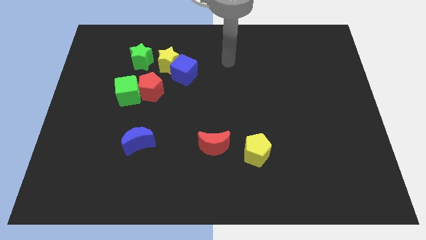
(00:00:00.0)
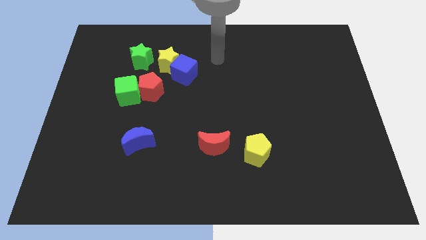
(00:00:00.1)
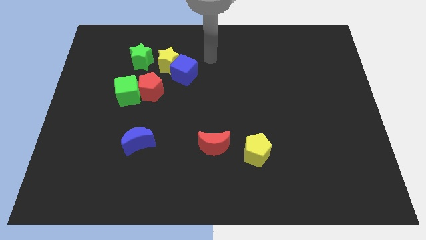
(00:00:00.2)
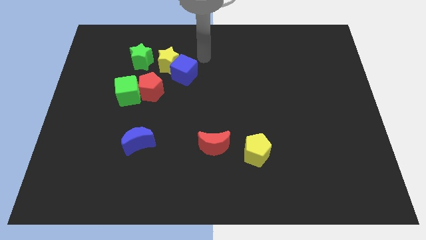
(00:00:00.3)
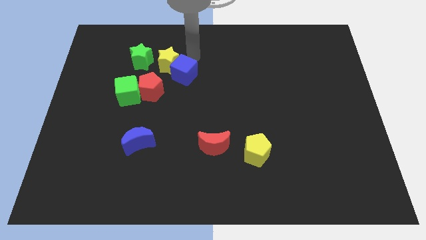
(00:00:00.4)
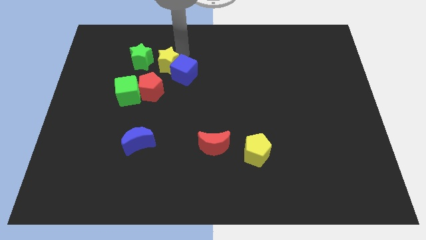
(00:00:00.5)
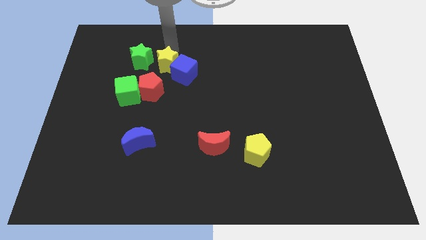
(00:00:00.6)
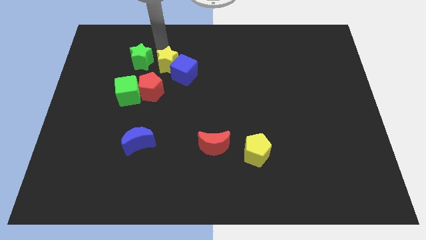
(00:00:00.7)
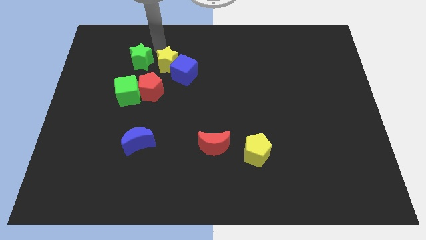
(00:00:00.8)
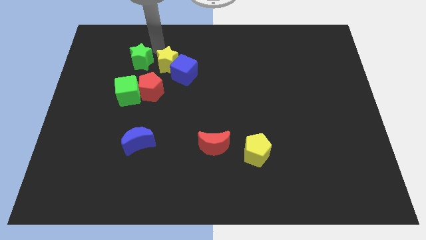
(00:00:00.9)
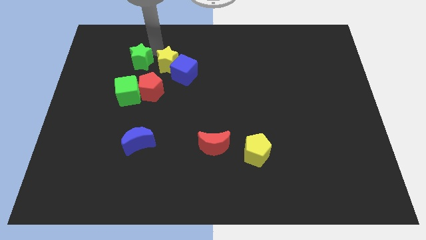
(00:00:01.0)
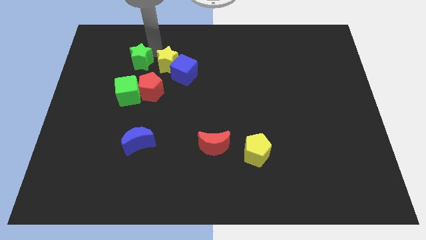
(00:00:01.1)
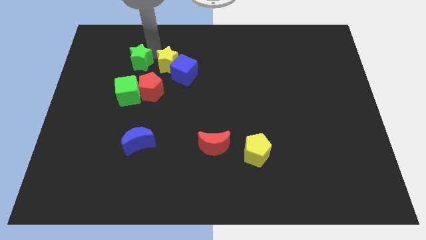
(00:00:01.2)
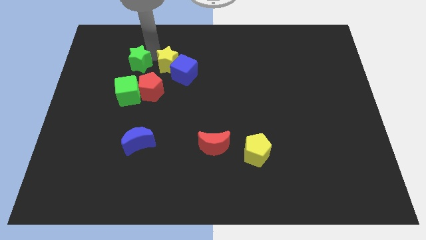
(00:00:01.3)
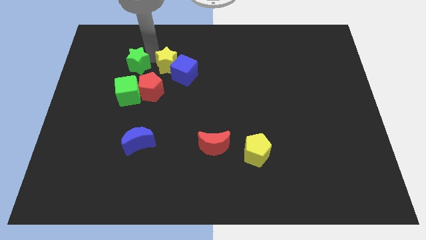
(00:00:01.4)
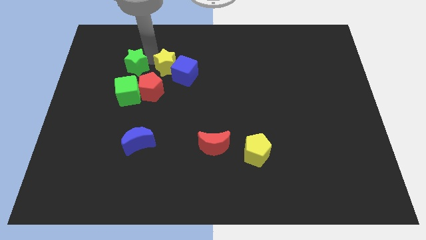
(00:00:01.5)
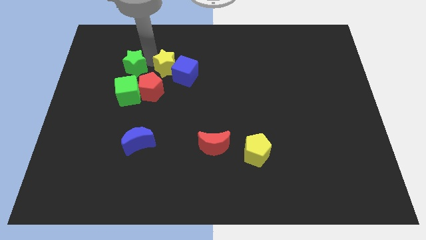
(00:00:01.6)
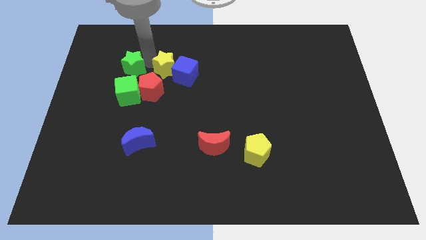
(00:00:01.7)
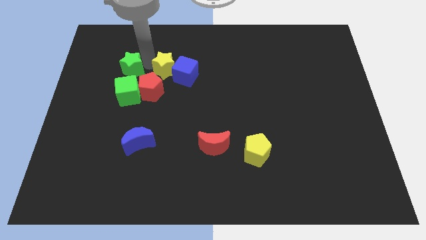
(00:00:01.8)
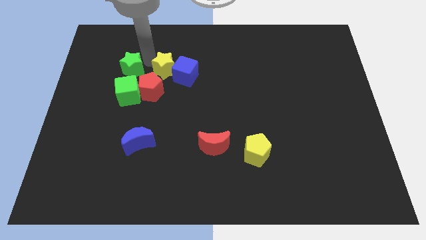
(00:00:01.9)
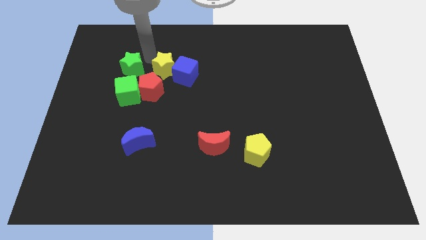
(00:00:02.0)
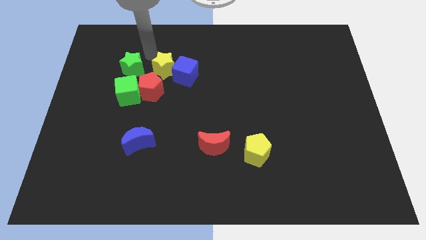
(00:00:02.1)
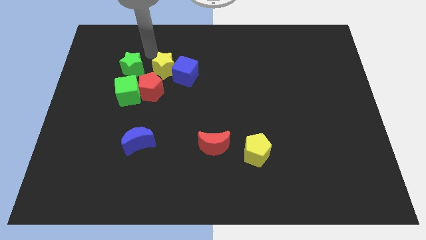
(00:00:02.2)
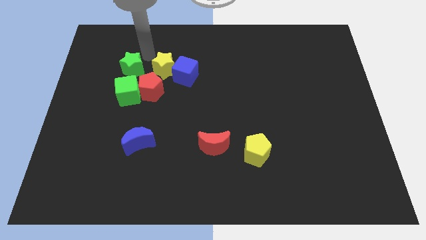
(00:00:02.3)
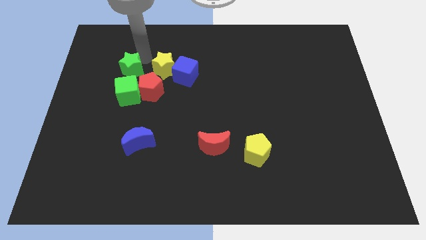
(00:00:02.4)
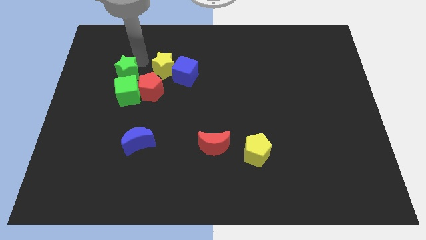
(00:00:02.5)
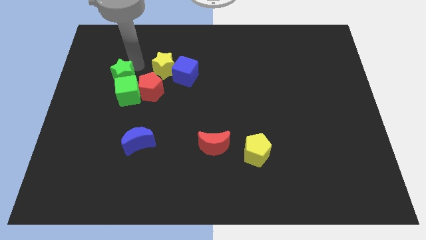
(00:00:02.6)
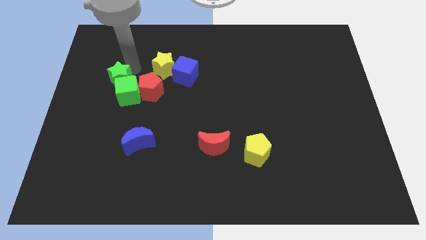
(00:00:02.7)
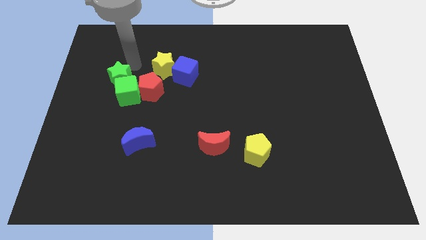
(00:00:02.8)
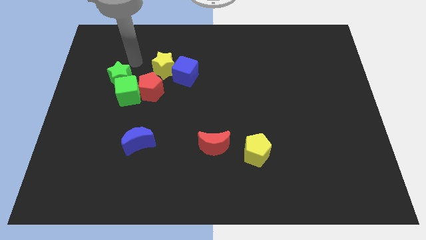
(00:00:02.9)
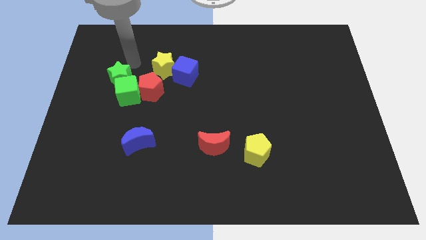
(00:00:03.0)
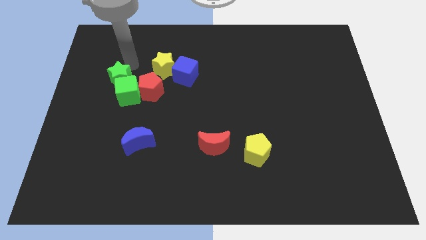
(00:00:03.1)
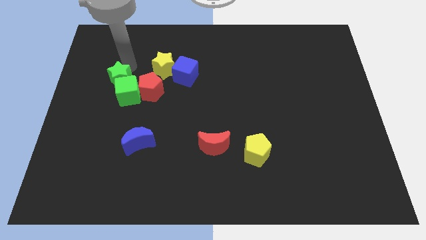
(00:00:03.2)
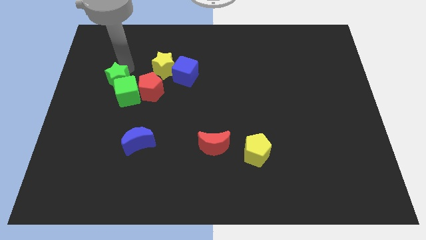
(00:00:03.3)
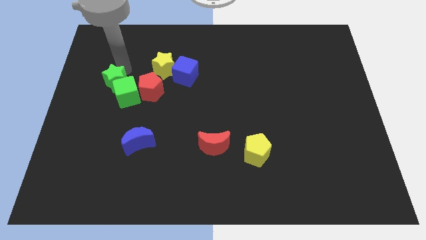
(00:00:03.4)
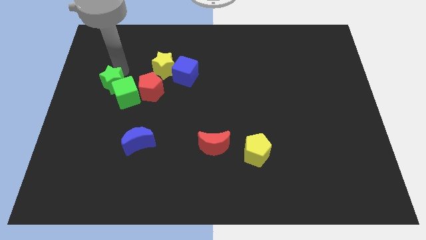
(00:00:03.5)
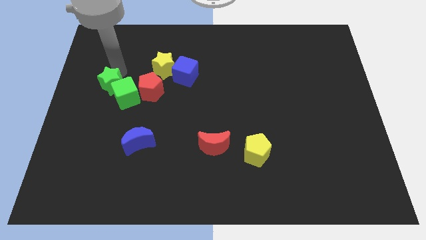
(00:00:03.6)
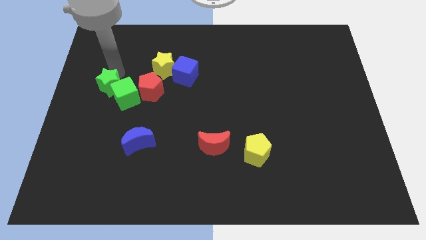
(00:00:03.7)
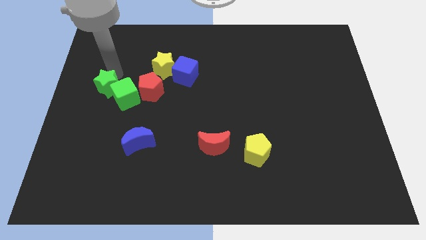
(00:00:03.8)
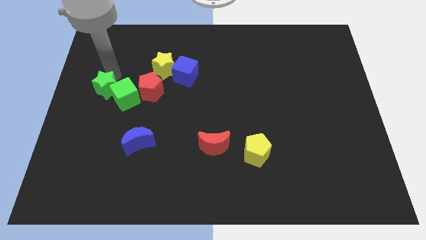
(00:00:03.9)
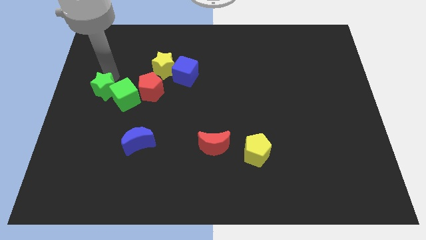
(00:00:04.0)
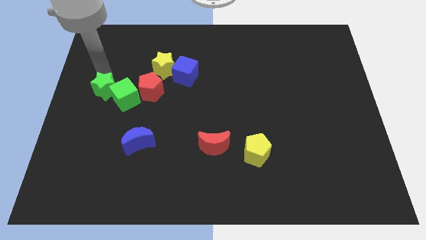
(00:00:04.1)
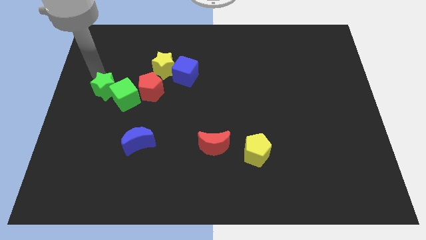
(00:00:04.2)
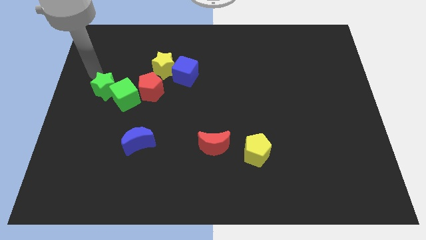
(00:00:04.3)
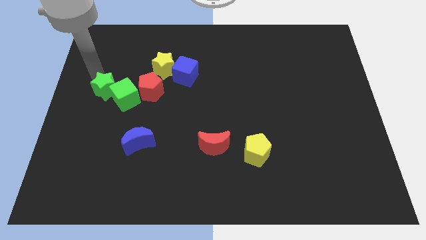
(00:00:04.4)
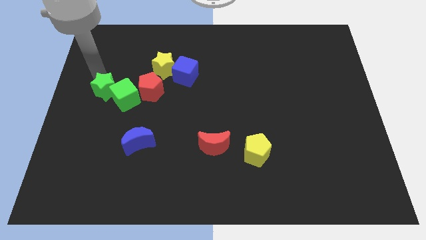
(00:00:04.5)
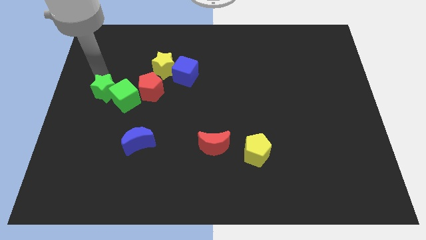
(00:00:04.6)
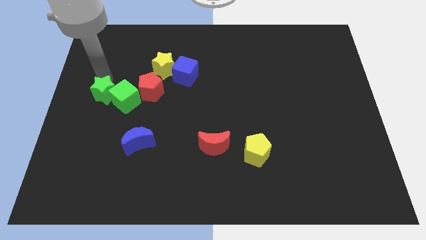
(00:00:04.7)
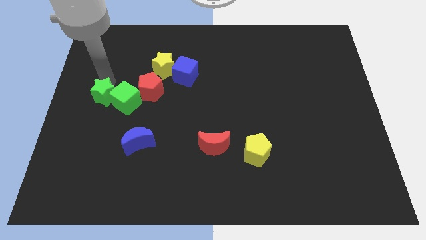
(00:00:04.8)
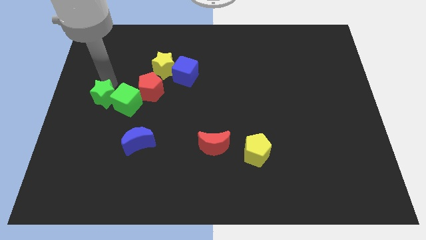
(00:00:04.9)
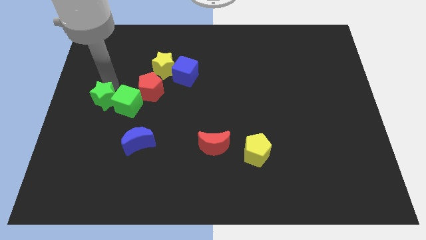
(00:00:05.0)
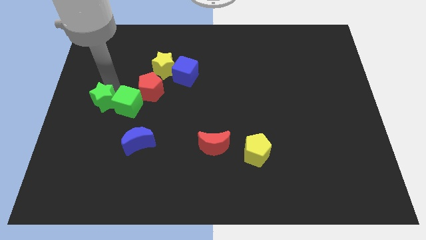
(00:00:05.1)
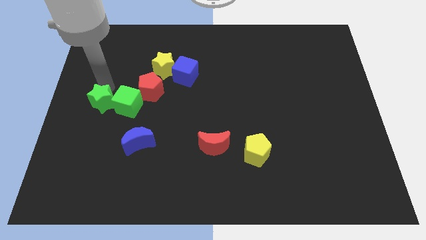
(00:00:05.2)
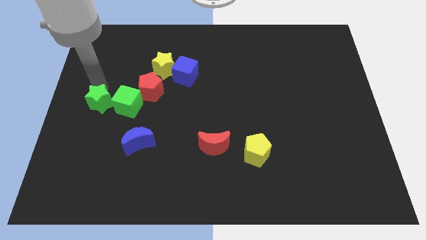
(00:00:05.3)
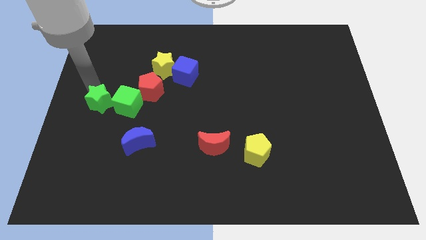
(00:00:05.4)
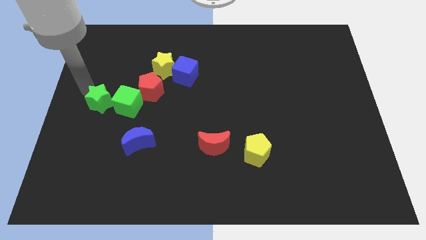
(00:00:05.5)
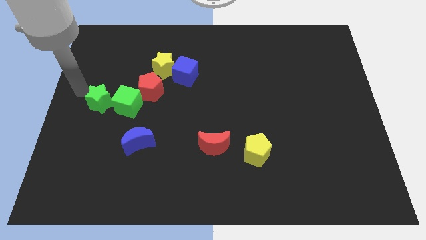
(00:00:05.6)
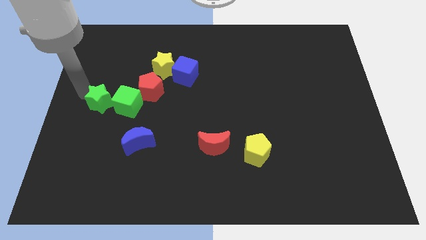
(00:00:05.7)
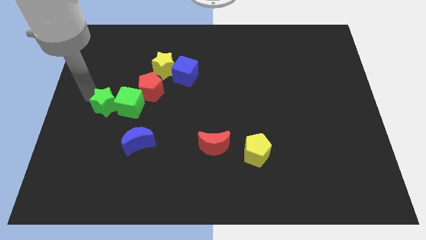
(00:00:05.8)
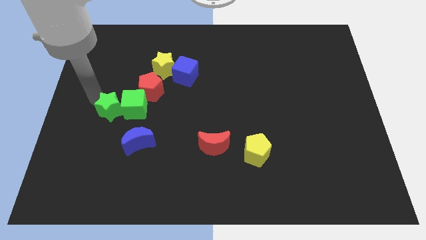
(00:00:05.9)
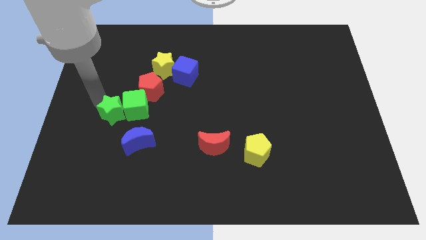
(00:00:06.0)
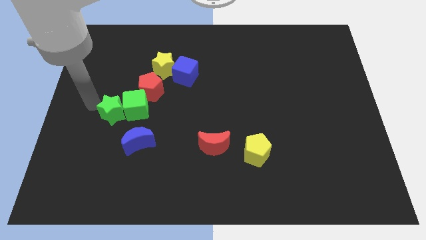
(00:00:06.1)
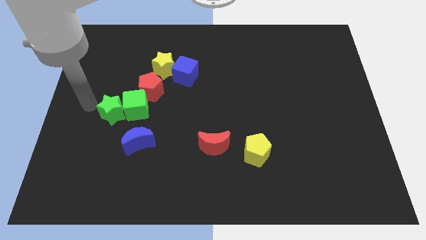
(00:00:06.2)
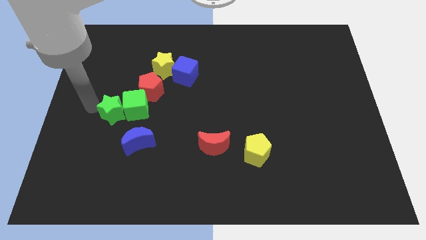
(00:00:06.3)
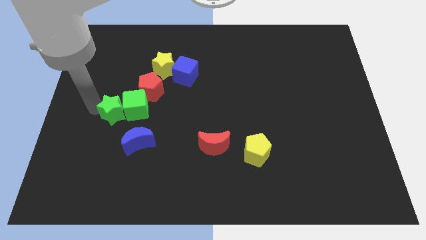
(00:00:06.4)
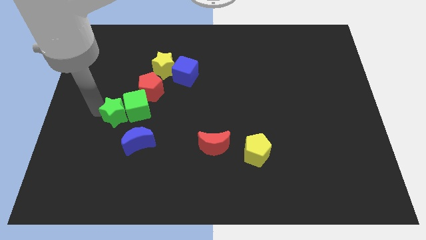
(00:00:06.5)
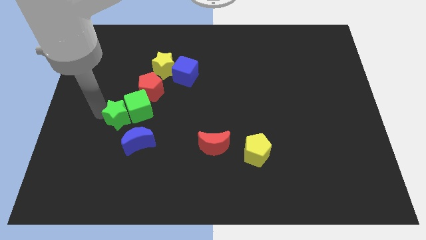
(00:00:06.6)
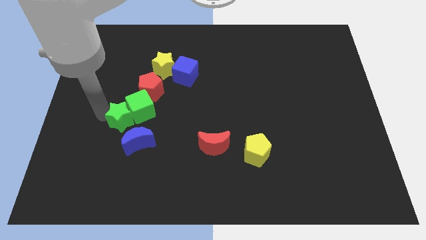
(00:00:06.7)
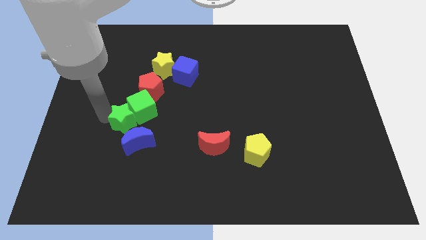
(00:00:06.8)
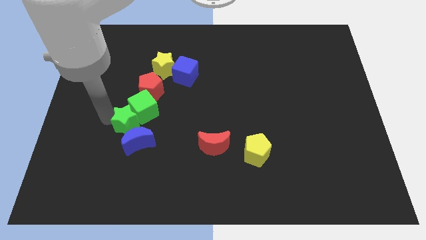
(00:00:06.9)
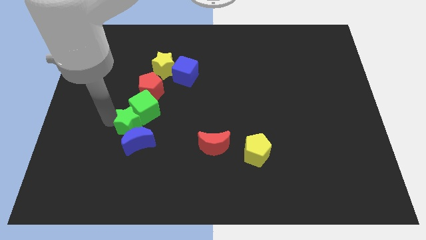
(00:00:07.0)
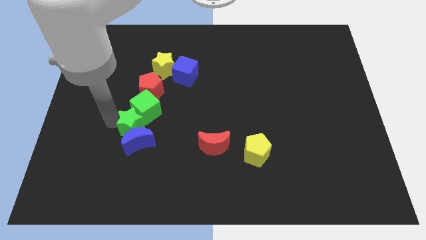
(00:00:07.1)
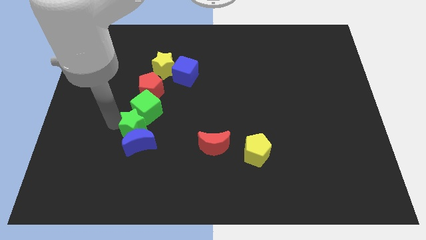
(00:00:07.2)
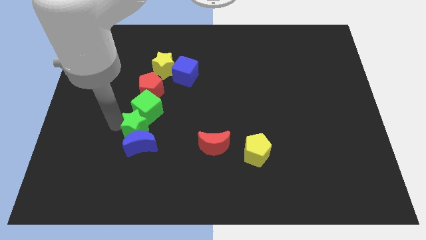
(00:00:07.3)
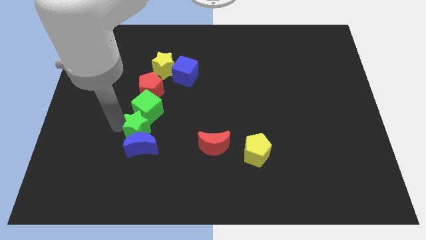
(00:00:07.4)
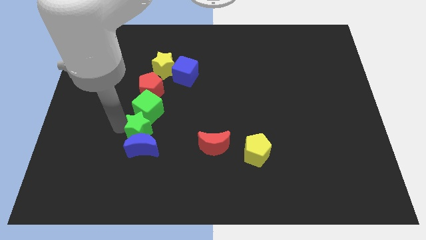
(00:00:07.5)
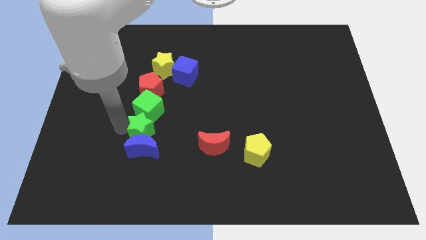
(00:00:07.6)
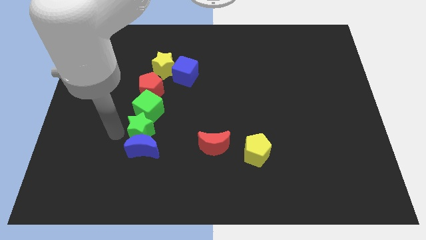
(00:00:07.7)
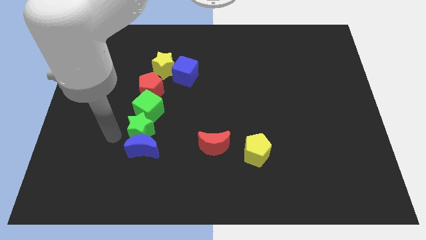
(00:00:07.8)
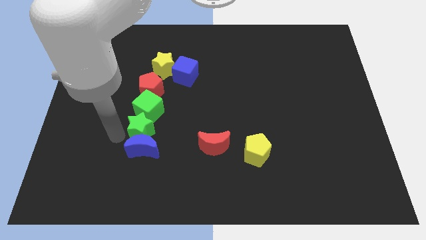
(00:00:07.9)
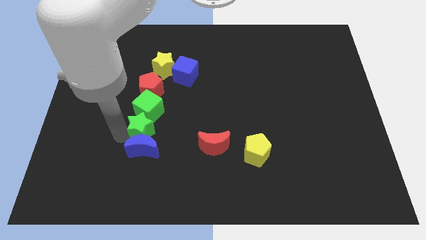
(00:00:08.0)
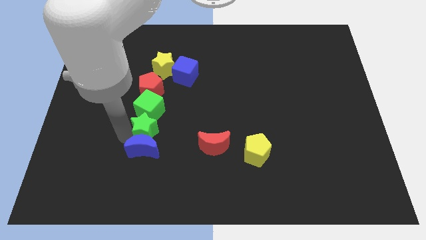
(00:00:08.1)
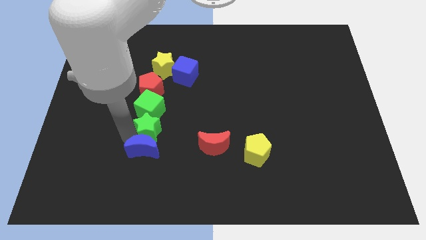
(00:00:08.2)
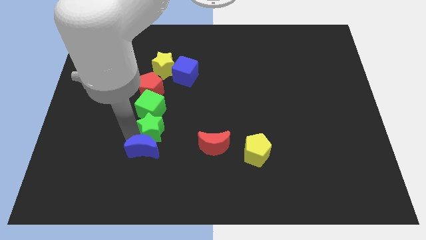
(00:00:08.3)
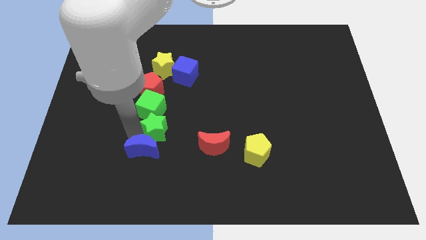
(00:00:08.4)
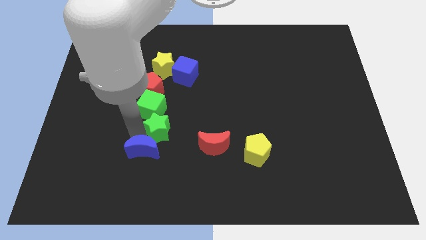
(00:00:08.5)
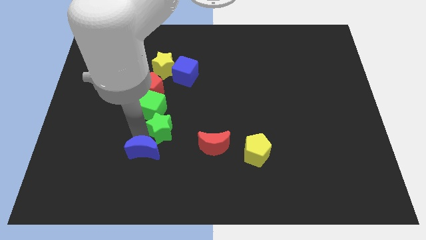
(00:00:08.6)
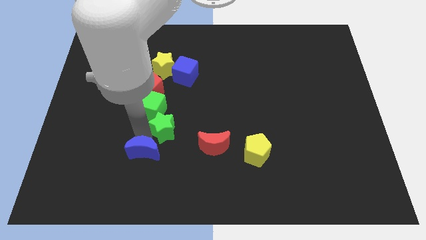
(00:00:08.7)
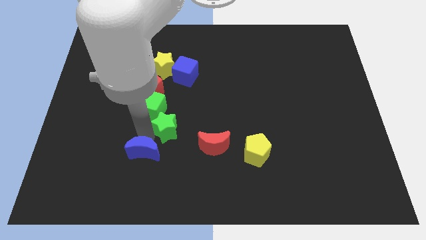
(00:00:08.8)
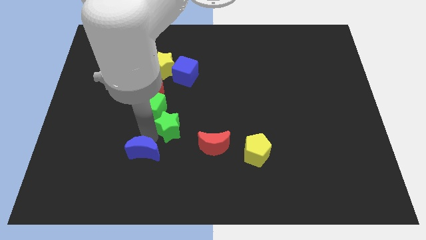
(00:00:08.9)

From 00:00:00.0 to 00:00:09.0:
move the green star diagonally up and to the left of the red moon
